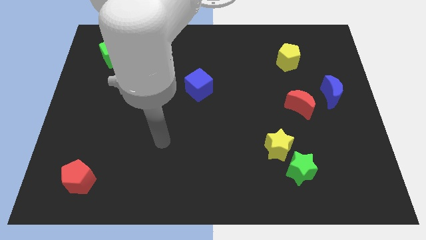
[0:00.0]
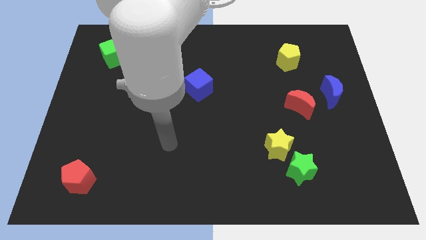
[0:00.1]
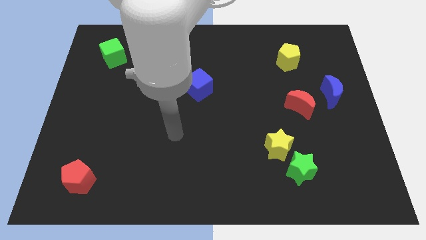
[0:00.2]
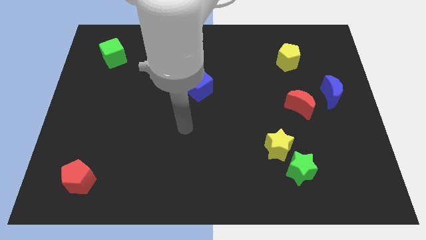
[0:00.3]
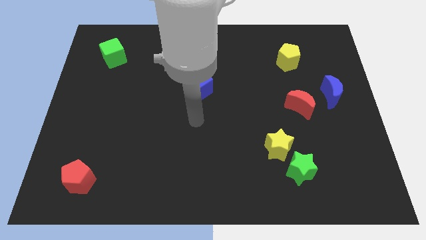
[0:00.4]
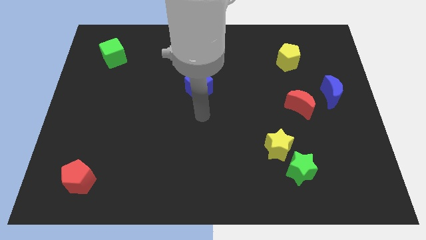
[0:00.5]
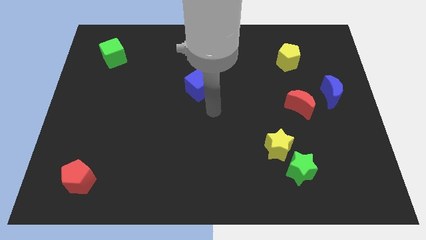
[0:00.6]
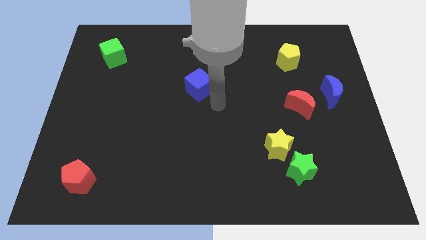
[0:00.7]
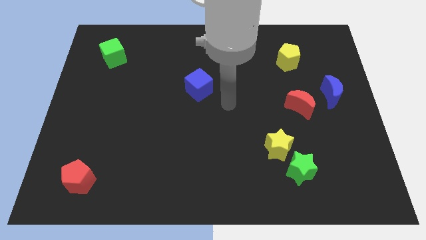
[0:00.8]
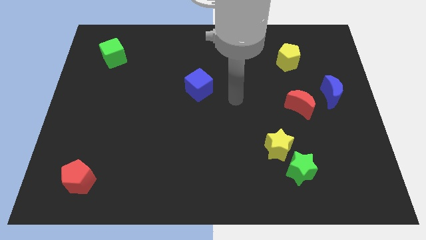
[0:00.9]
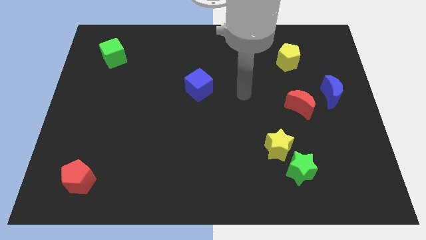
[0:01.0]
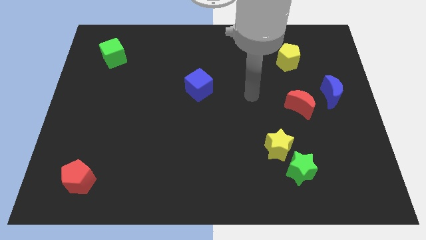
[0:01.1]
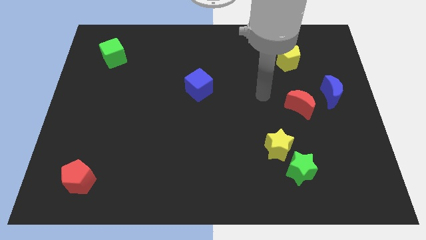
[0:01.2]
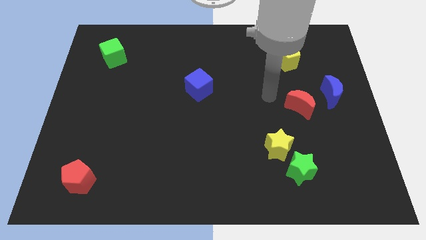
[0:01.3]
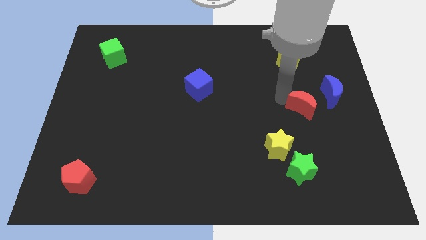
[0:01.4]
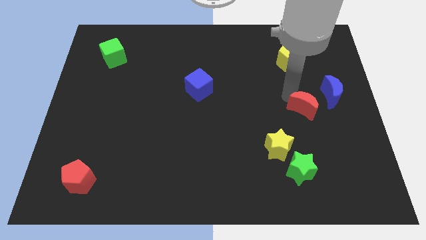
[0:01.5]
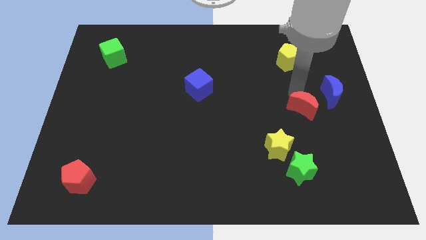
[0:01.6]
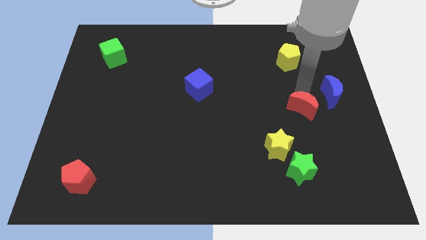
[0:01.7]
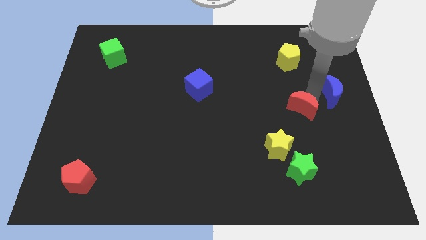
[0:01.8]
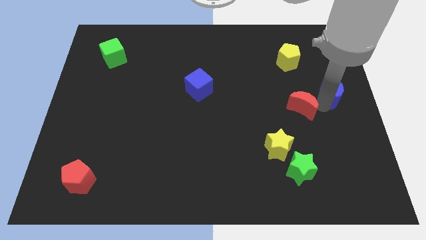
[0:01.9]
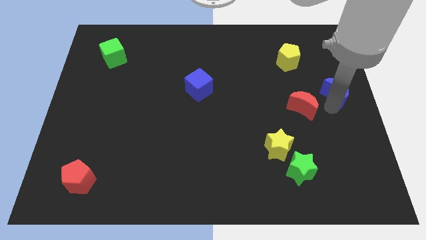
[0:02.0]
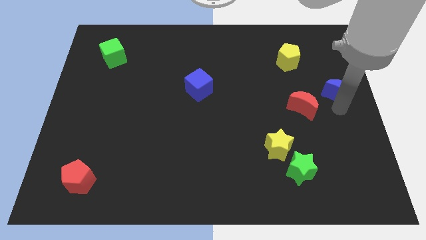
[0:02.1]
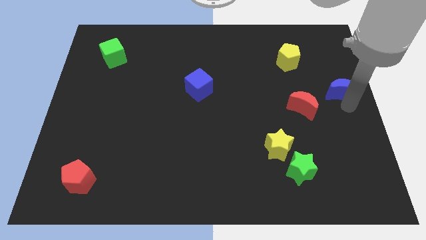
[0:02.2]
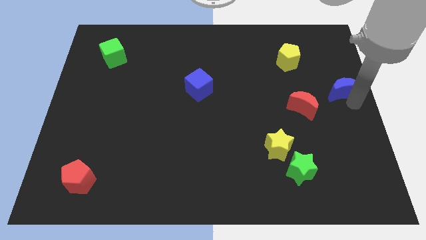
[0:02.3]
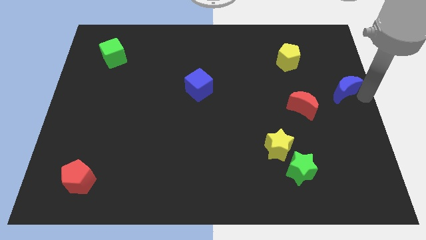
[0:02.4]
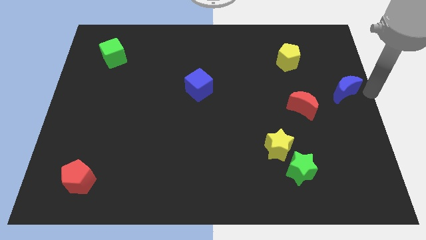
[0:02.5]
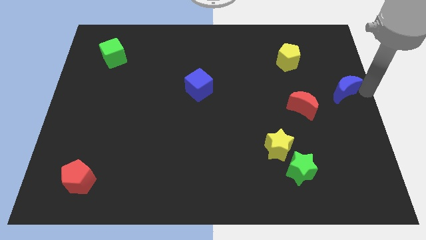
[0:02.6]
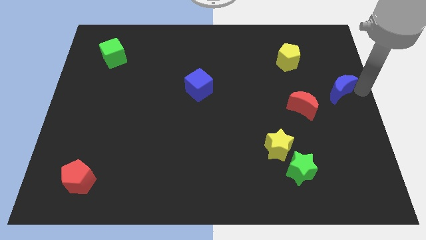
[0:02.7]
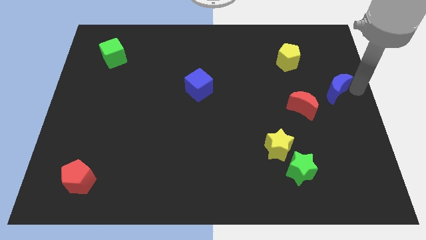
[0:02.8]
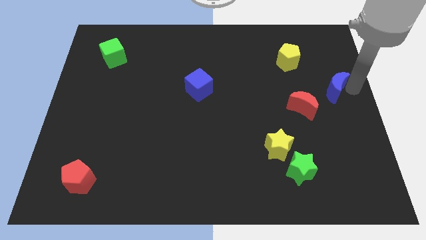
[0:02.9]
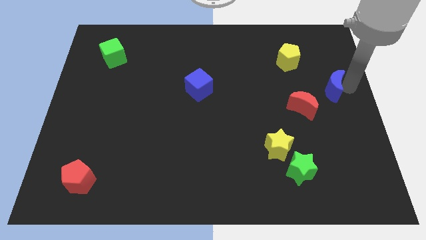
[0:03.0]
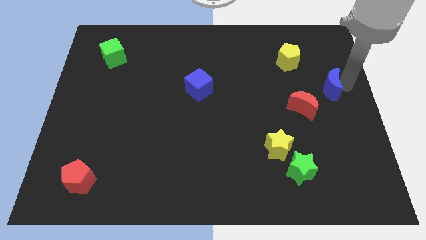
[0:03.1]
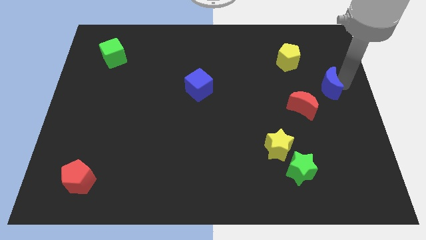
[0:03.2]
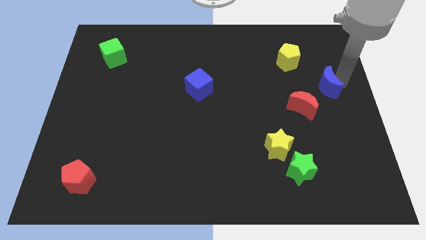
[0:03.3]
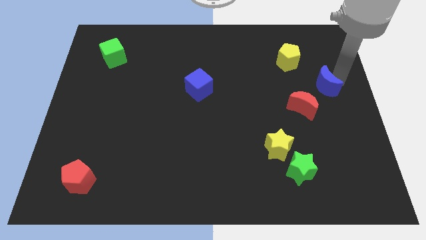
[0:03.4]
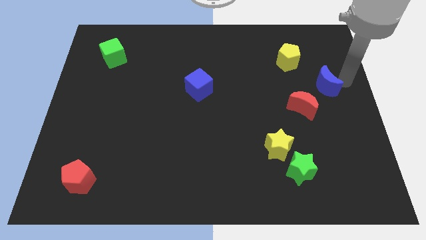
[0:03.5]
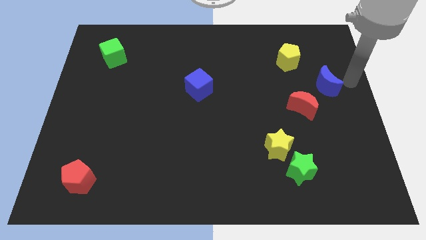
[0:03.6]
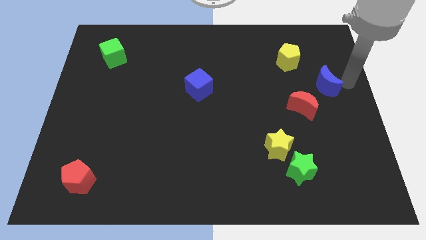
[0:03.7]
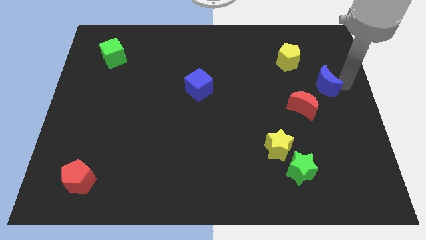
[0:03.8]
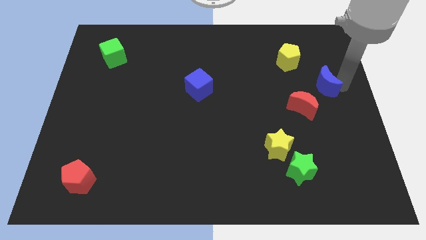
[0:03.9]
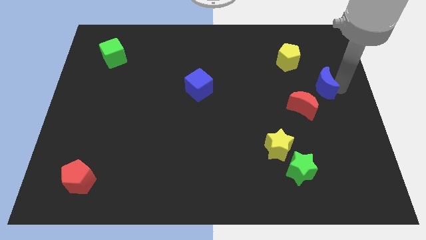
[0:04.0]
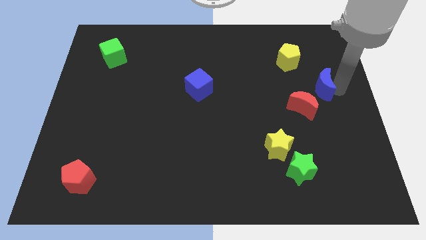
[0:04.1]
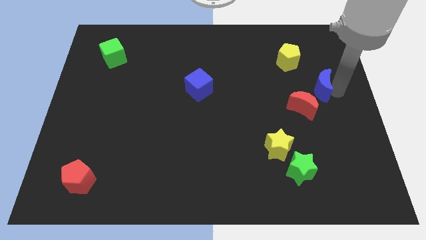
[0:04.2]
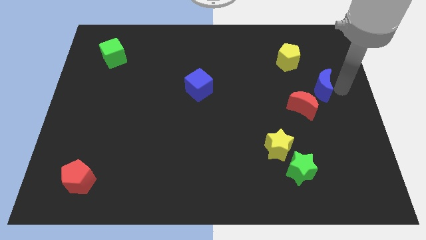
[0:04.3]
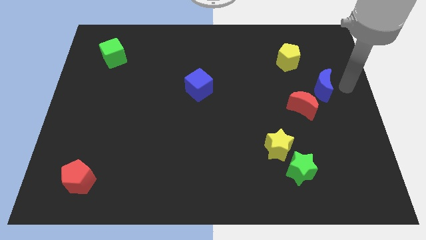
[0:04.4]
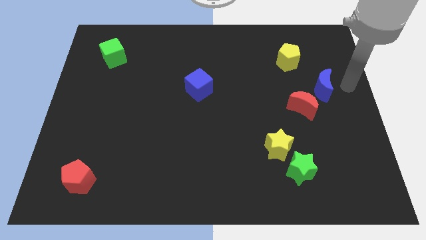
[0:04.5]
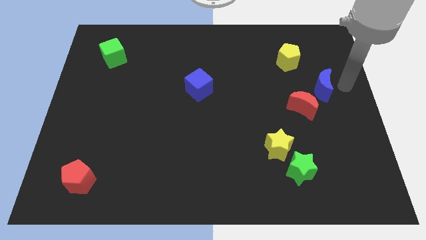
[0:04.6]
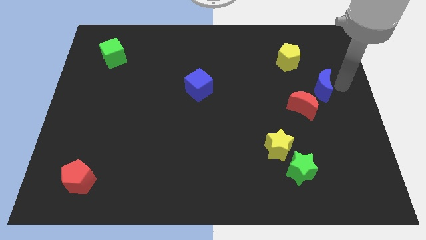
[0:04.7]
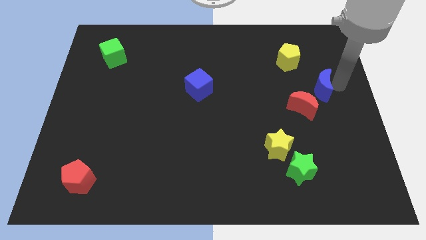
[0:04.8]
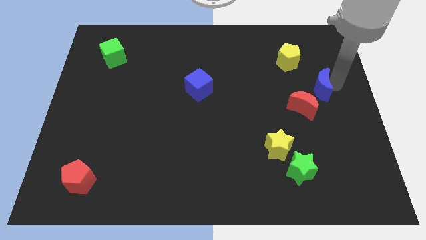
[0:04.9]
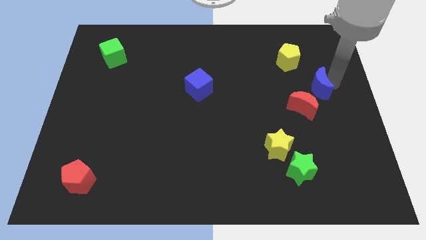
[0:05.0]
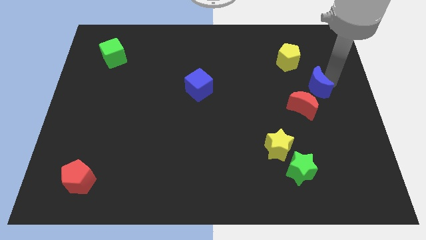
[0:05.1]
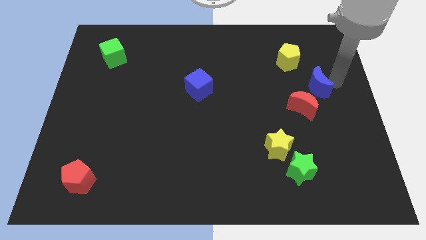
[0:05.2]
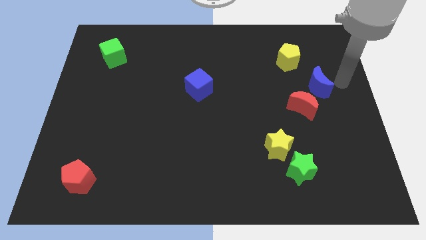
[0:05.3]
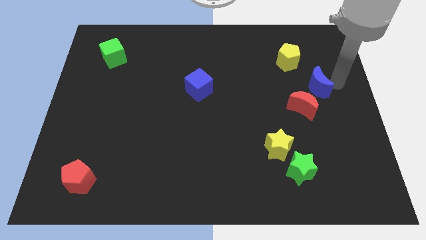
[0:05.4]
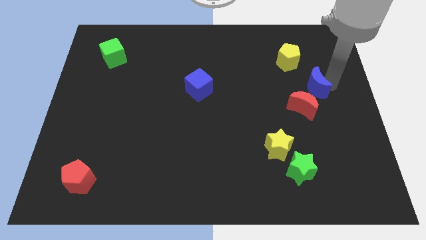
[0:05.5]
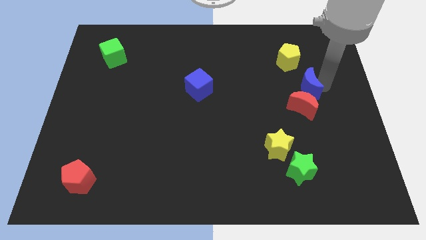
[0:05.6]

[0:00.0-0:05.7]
slide the blue moon to the bottom side of the yellow pentagon

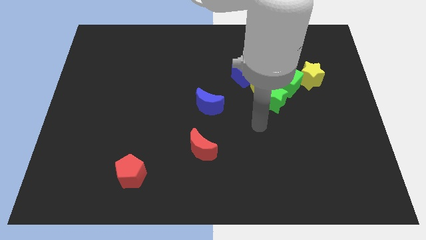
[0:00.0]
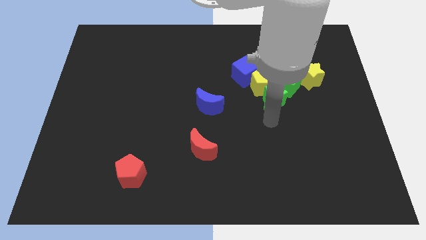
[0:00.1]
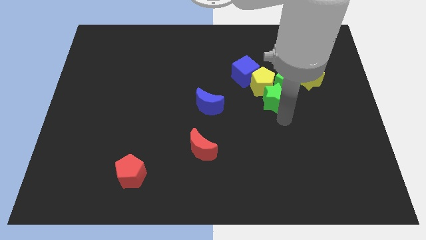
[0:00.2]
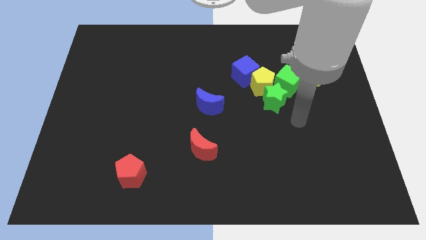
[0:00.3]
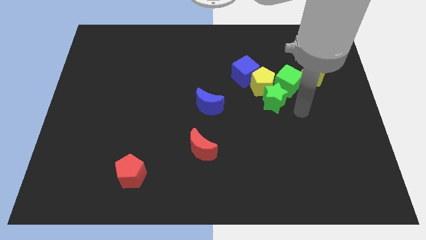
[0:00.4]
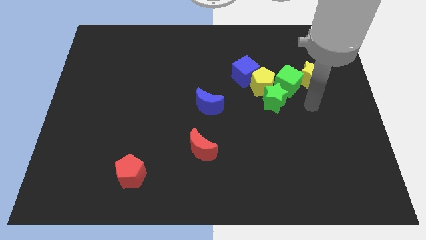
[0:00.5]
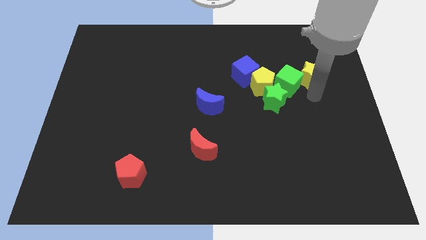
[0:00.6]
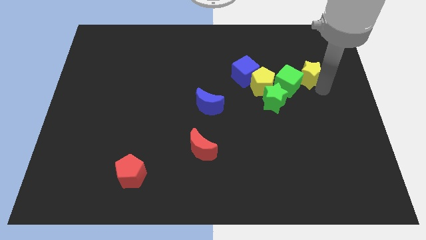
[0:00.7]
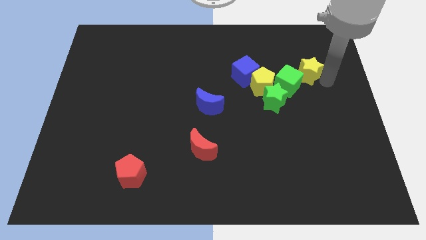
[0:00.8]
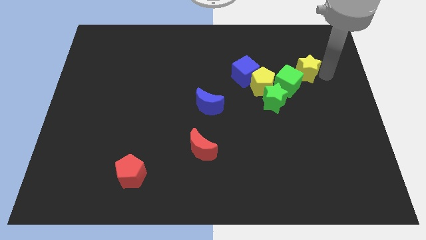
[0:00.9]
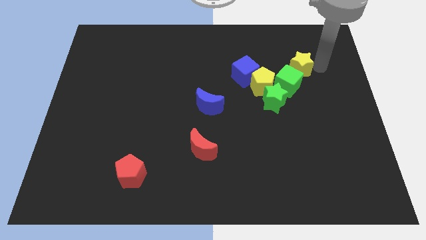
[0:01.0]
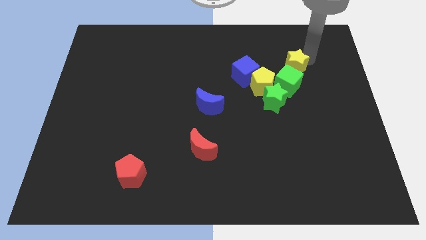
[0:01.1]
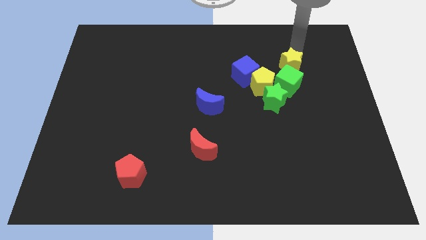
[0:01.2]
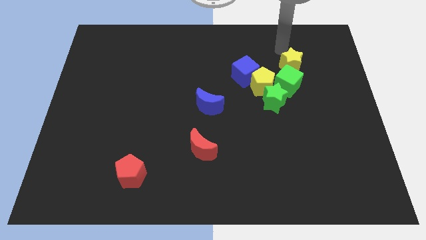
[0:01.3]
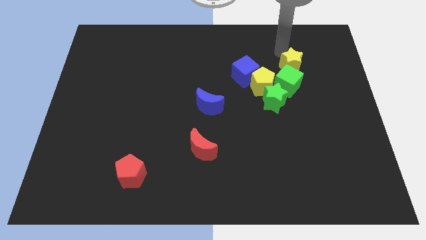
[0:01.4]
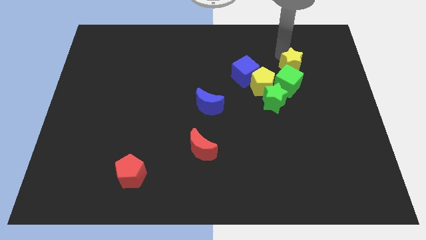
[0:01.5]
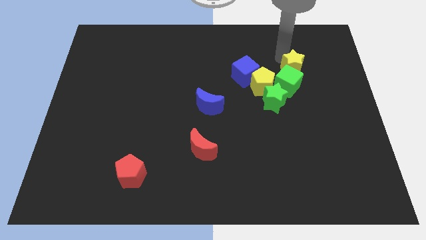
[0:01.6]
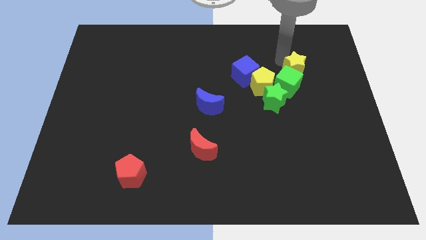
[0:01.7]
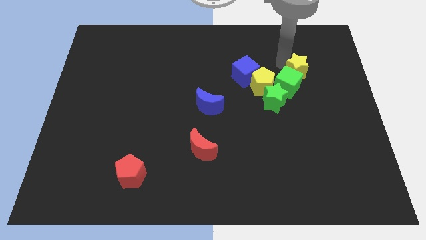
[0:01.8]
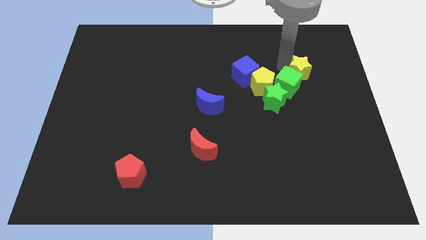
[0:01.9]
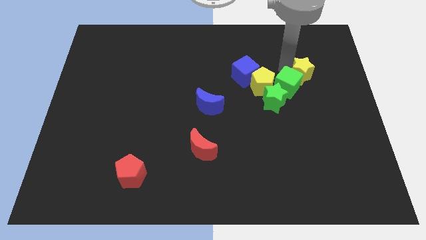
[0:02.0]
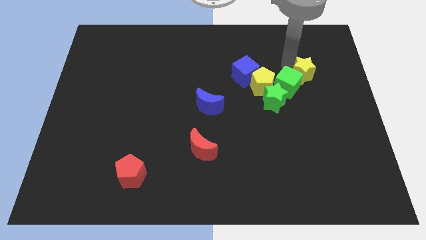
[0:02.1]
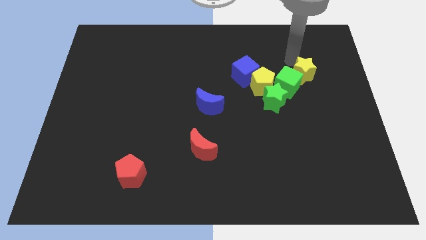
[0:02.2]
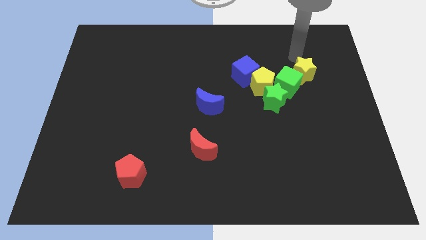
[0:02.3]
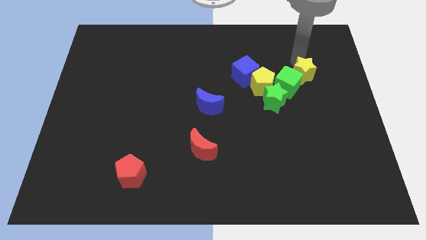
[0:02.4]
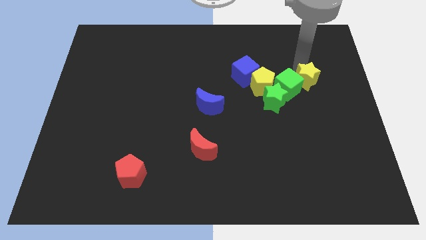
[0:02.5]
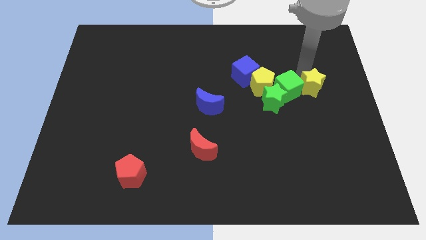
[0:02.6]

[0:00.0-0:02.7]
push the yellow star to the bottom right of the green cube
